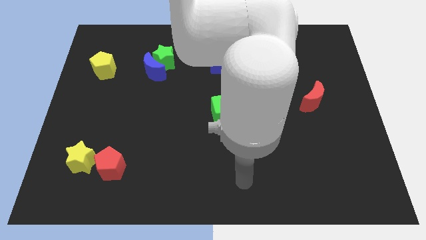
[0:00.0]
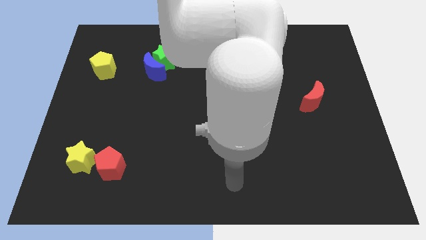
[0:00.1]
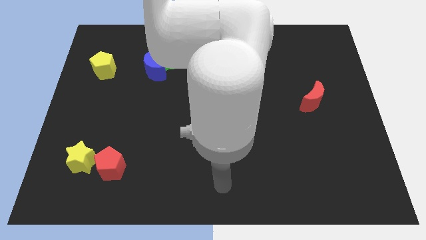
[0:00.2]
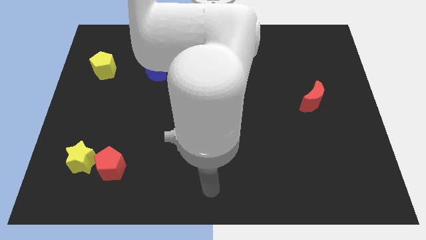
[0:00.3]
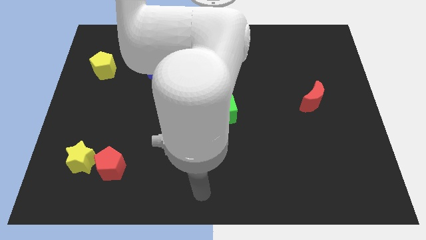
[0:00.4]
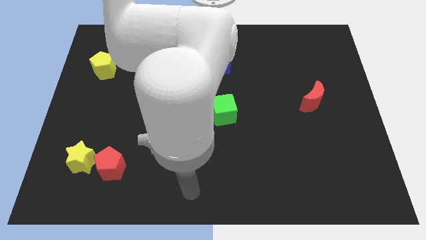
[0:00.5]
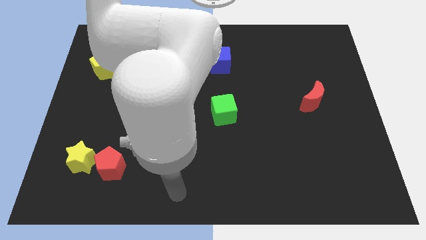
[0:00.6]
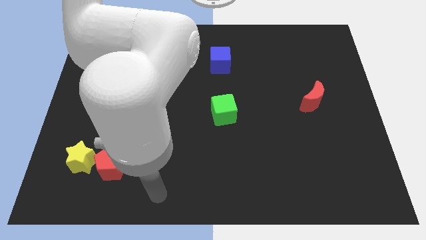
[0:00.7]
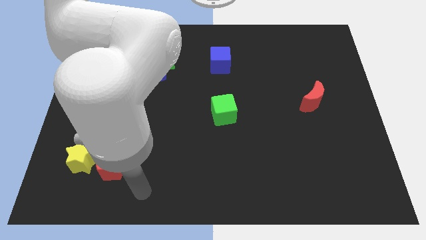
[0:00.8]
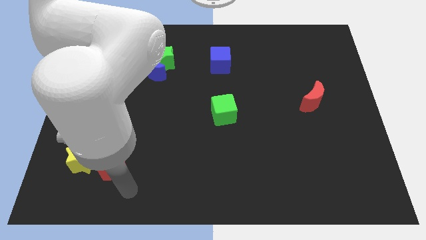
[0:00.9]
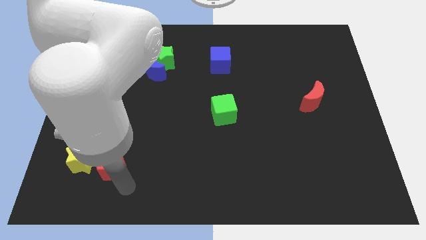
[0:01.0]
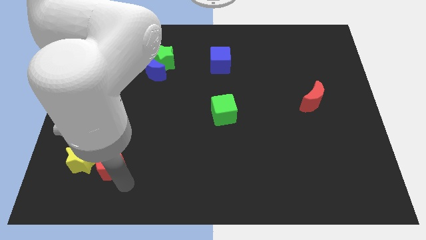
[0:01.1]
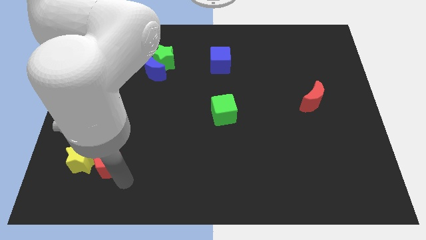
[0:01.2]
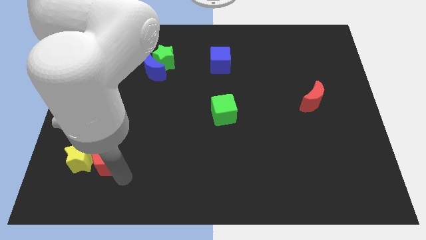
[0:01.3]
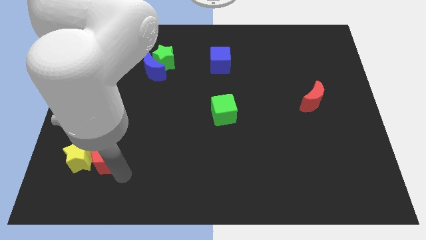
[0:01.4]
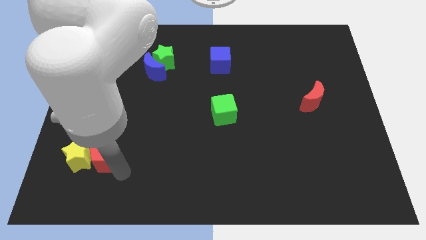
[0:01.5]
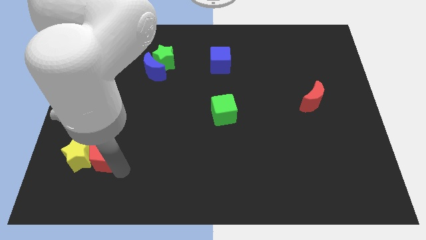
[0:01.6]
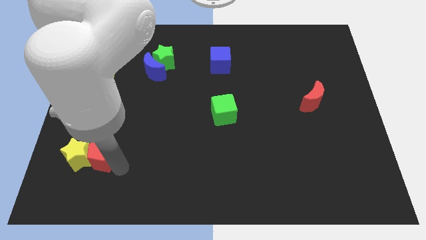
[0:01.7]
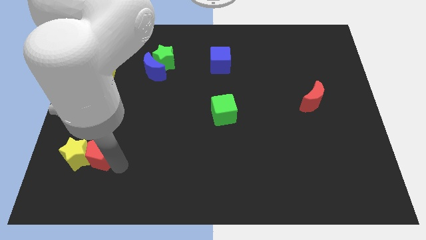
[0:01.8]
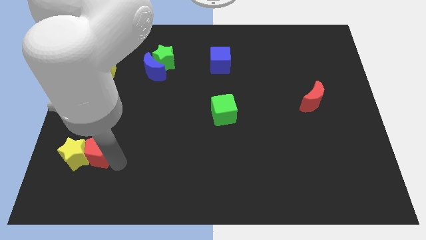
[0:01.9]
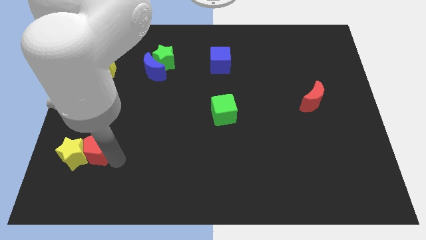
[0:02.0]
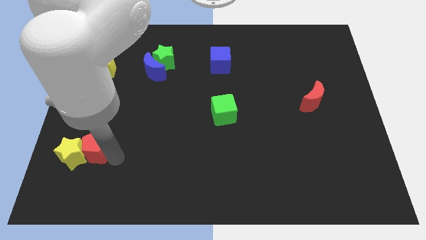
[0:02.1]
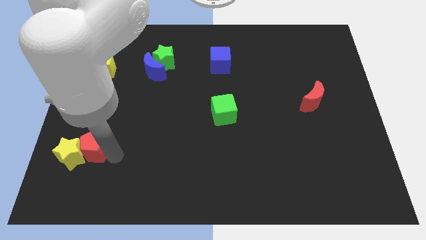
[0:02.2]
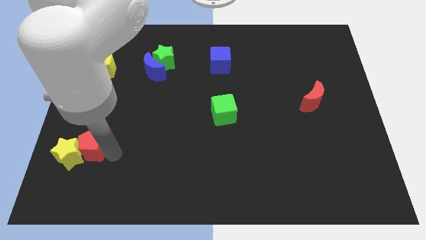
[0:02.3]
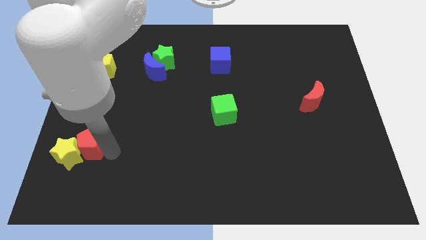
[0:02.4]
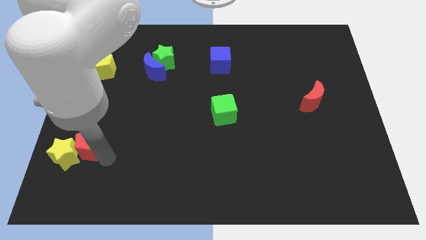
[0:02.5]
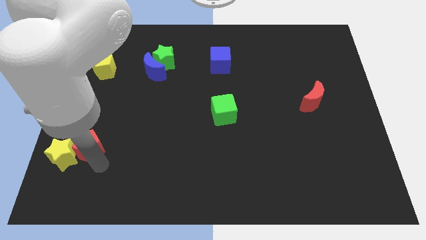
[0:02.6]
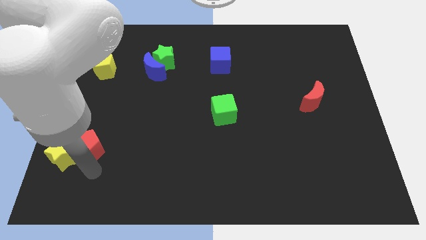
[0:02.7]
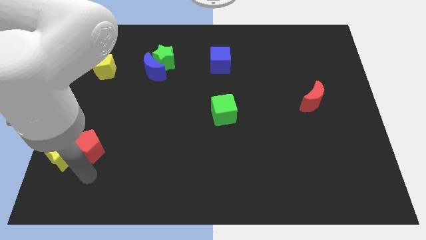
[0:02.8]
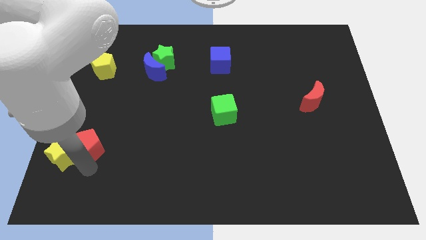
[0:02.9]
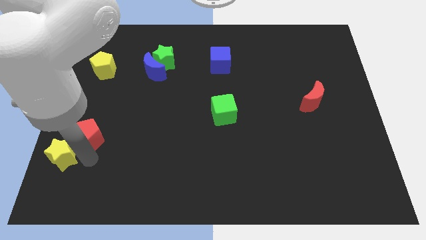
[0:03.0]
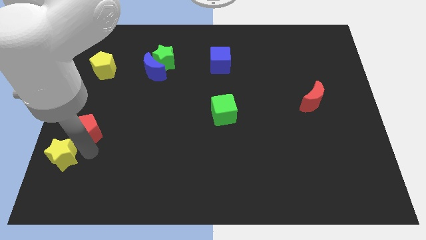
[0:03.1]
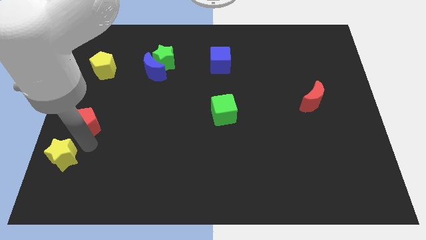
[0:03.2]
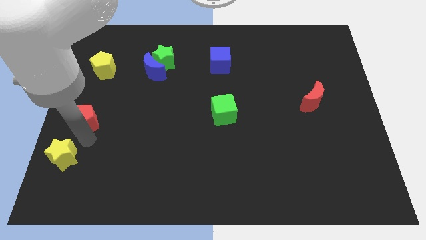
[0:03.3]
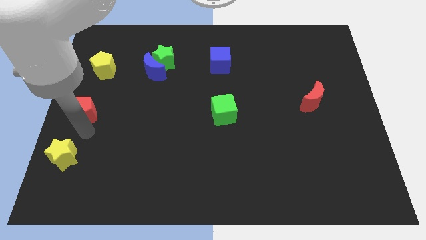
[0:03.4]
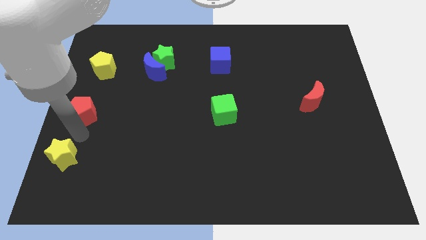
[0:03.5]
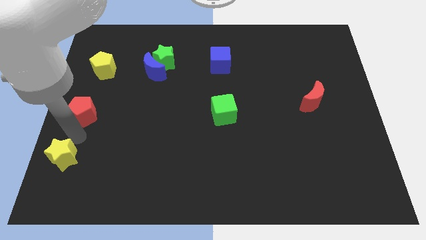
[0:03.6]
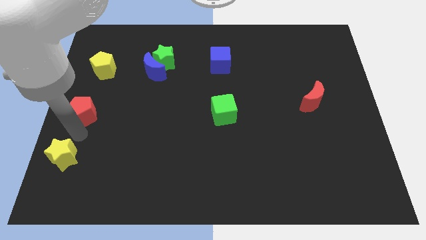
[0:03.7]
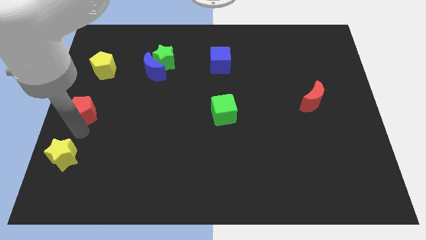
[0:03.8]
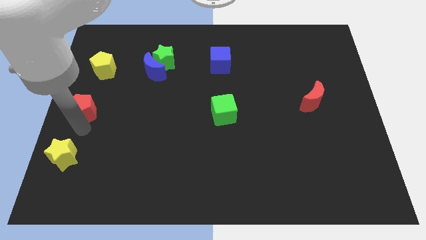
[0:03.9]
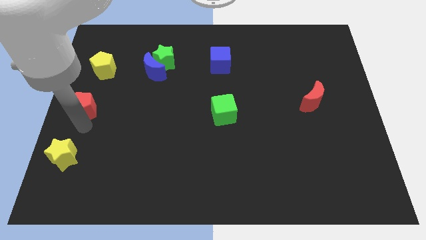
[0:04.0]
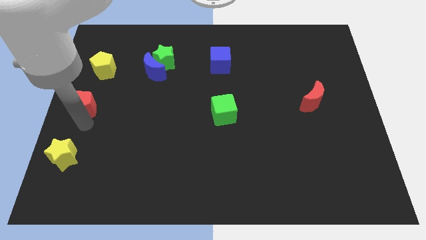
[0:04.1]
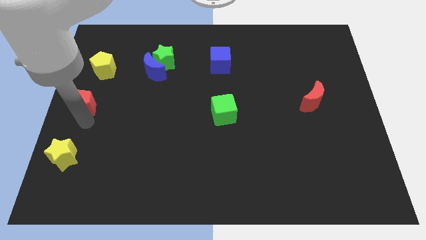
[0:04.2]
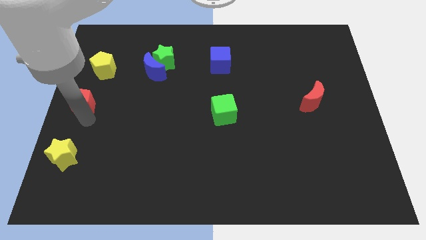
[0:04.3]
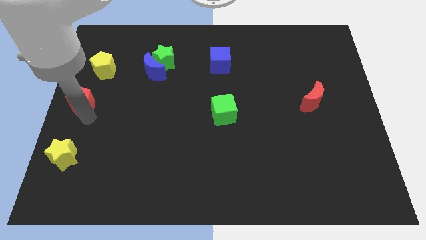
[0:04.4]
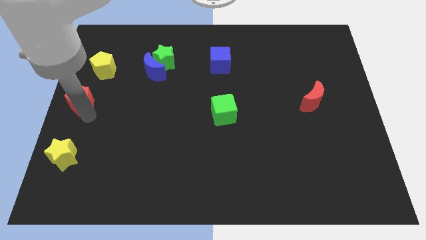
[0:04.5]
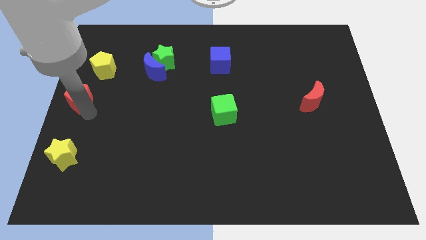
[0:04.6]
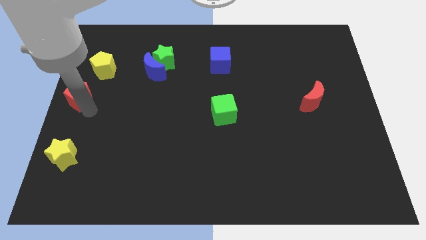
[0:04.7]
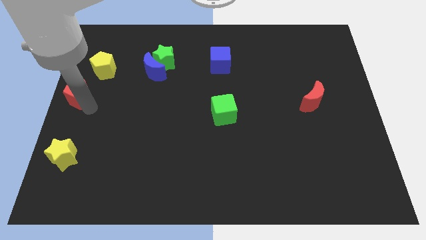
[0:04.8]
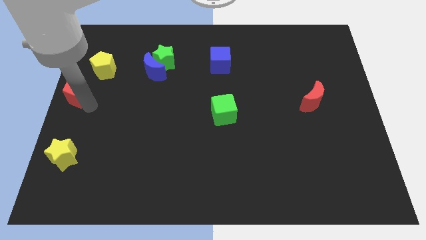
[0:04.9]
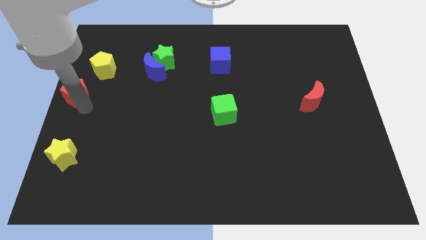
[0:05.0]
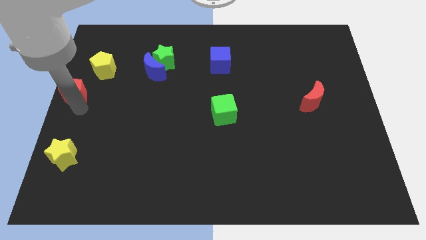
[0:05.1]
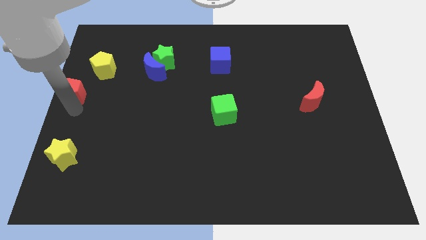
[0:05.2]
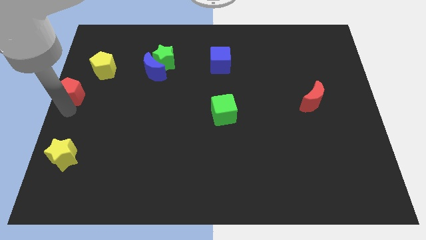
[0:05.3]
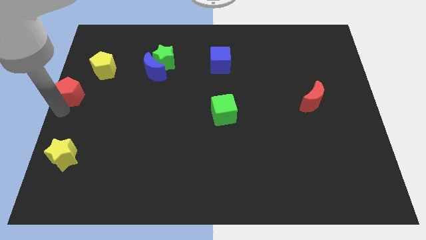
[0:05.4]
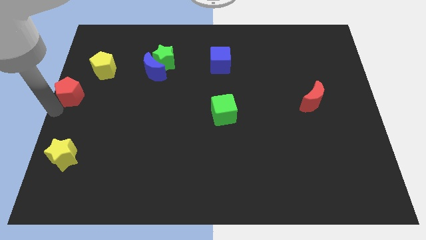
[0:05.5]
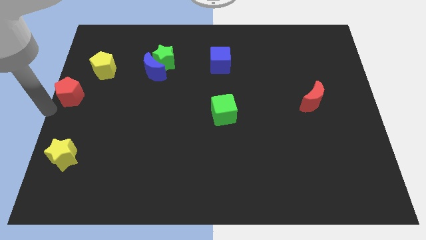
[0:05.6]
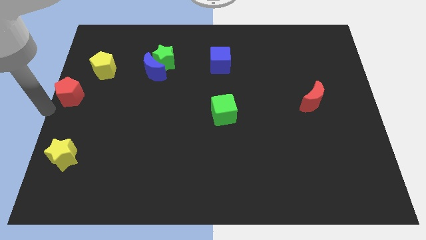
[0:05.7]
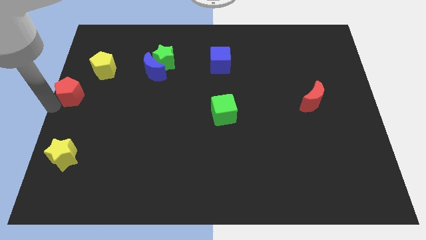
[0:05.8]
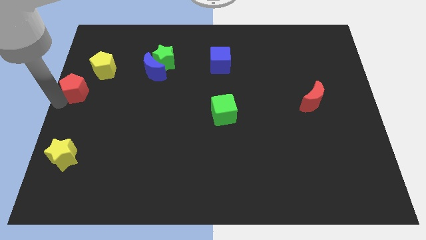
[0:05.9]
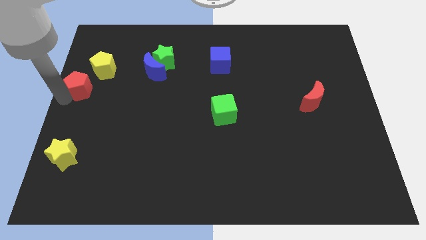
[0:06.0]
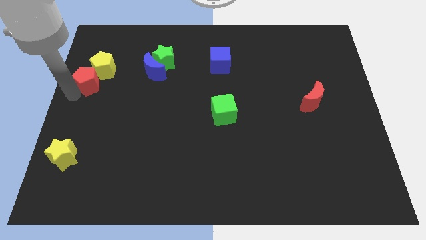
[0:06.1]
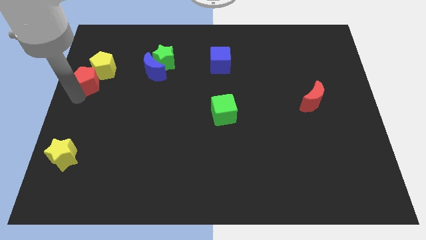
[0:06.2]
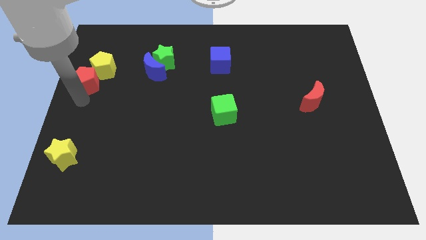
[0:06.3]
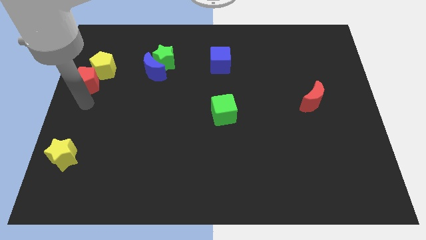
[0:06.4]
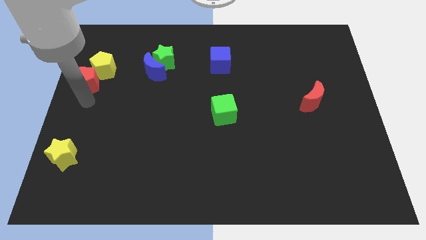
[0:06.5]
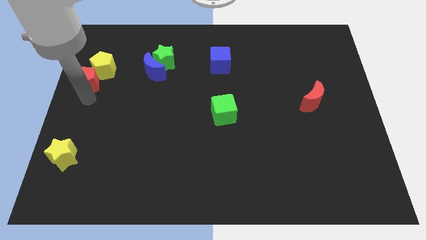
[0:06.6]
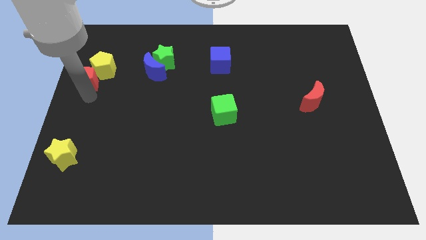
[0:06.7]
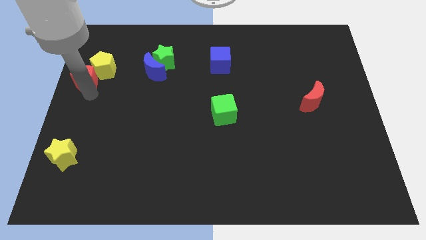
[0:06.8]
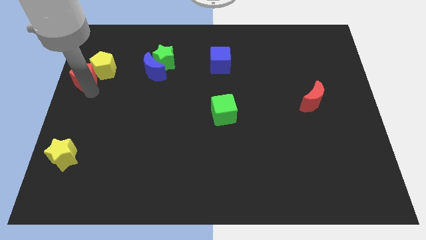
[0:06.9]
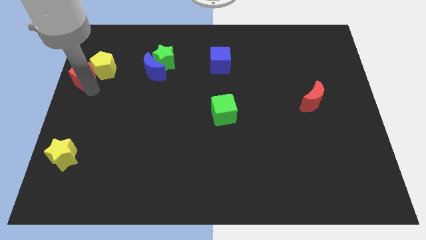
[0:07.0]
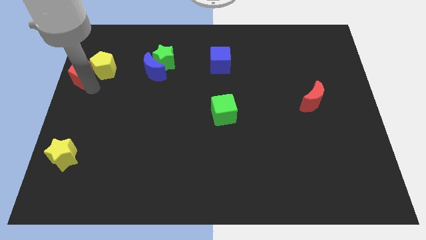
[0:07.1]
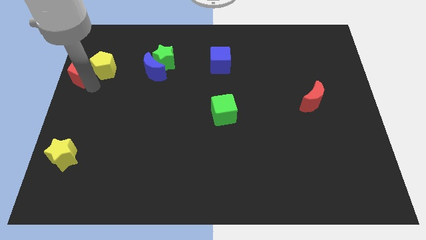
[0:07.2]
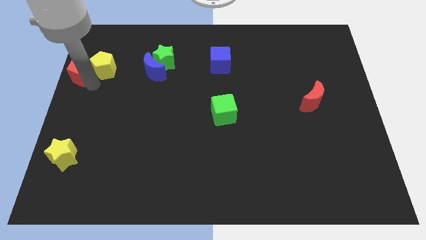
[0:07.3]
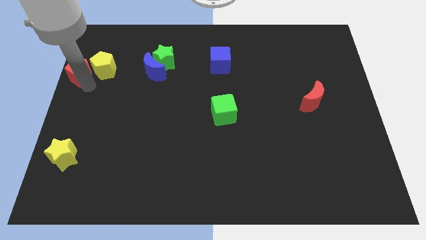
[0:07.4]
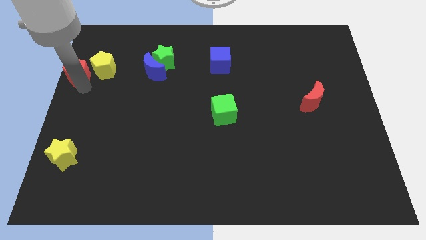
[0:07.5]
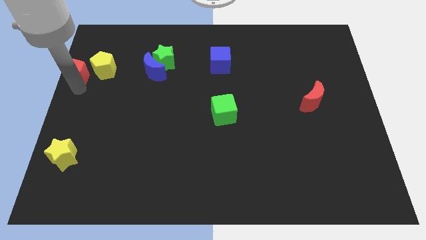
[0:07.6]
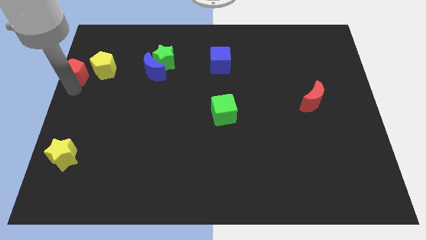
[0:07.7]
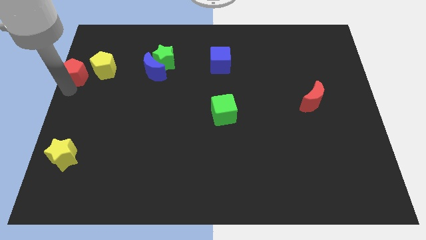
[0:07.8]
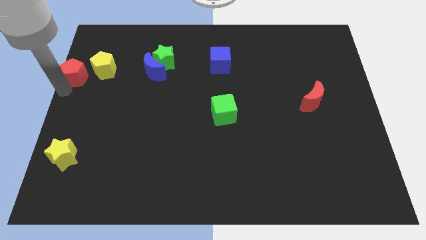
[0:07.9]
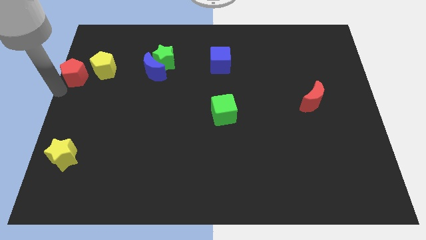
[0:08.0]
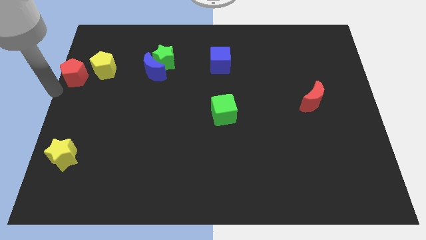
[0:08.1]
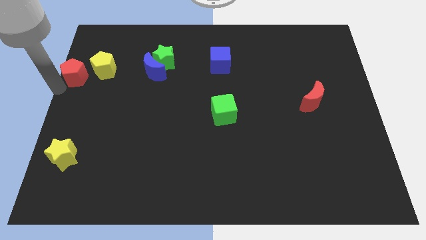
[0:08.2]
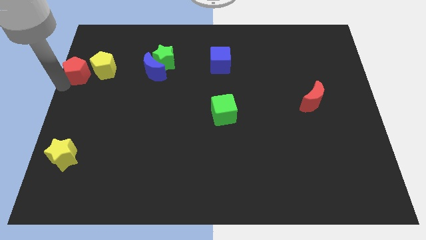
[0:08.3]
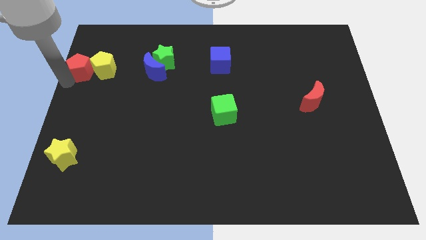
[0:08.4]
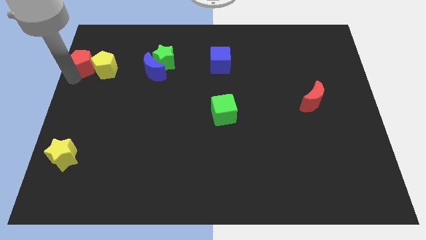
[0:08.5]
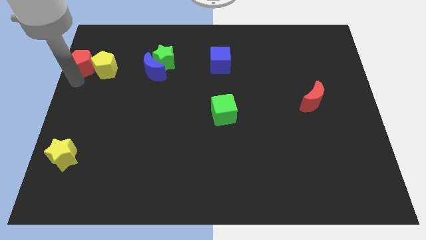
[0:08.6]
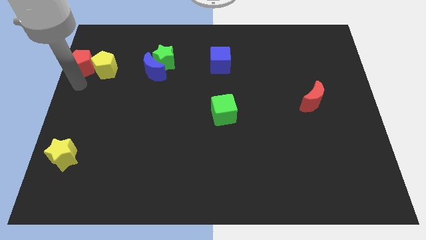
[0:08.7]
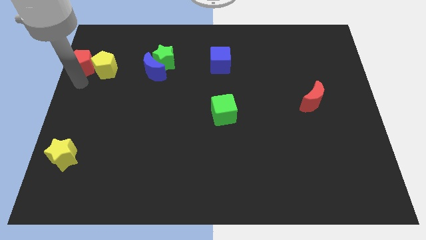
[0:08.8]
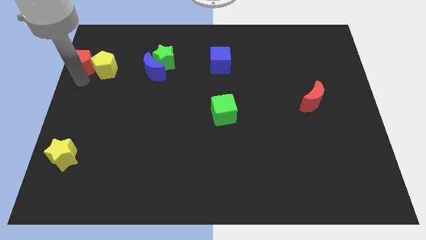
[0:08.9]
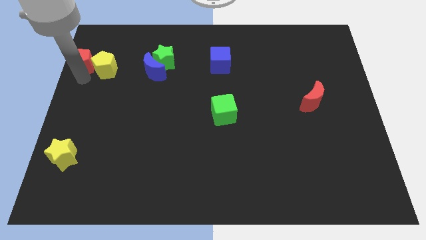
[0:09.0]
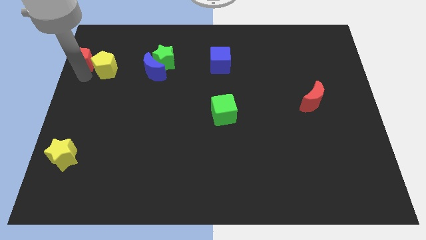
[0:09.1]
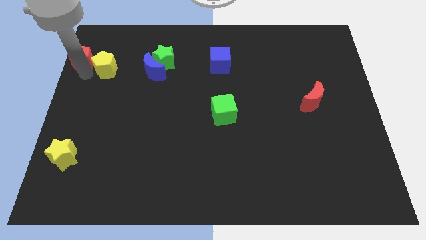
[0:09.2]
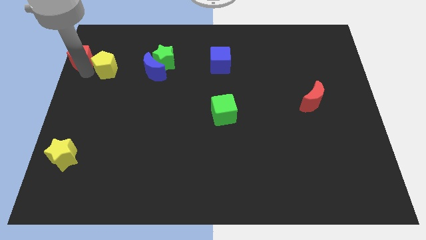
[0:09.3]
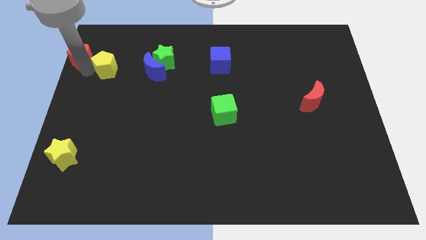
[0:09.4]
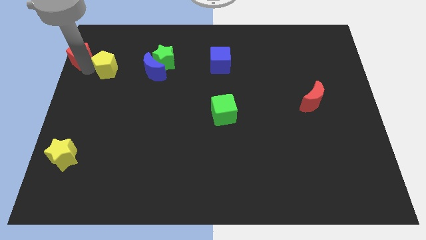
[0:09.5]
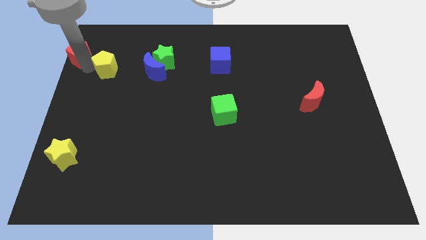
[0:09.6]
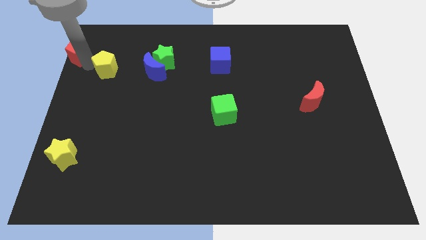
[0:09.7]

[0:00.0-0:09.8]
slide the red pentagon to the top left of the board
